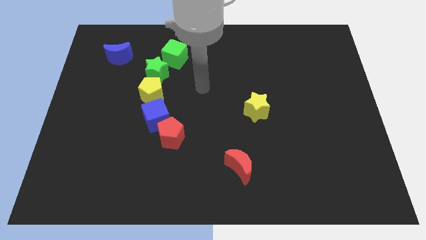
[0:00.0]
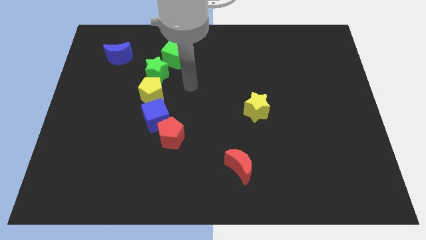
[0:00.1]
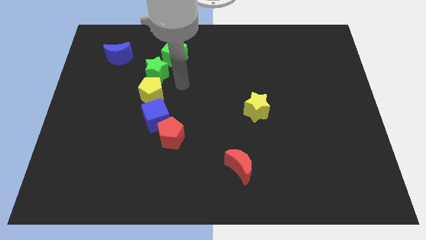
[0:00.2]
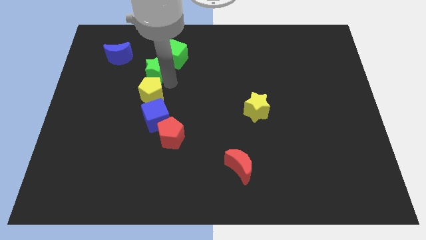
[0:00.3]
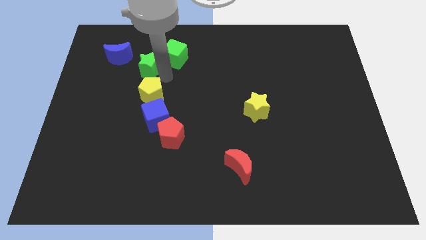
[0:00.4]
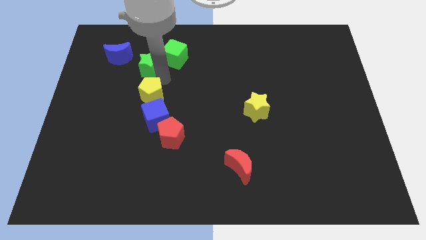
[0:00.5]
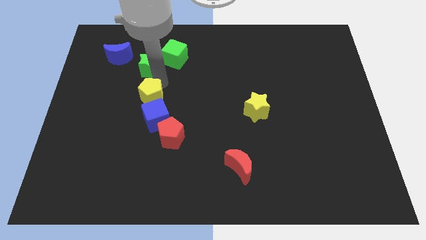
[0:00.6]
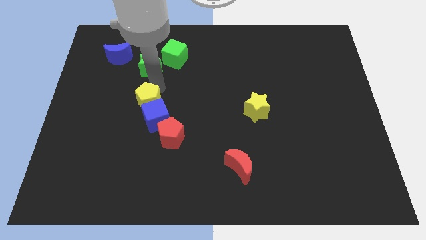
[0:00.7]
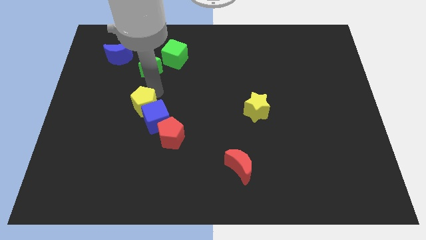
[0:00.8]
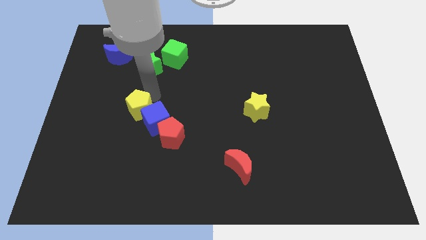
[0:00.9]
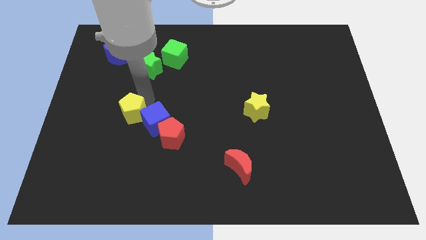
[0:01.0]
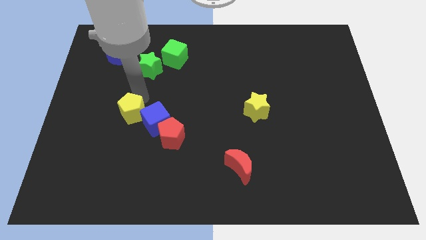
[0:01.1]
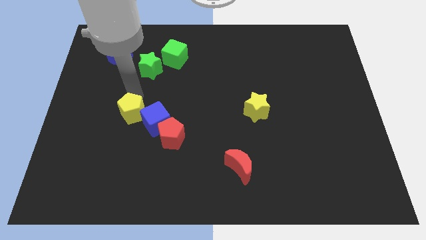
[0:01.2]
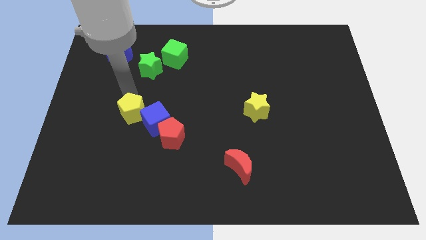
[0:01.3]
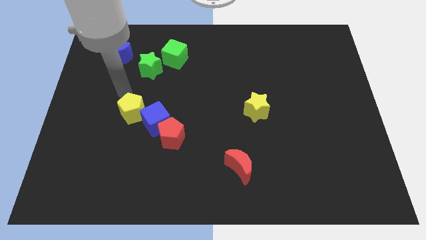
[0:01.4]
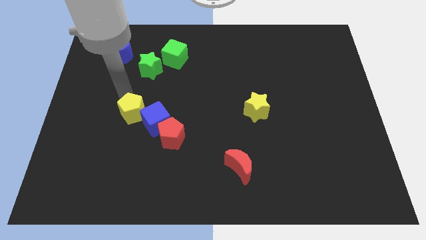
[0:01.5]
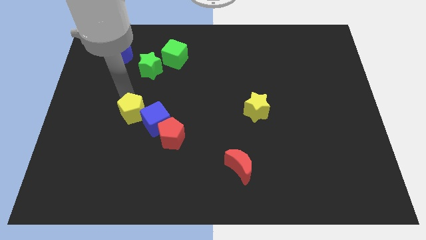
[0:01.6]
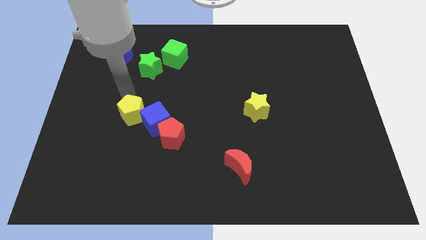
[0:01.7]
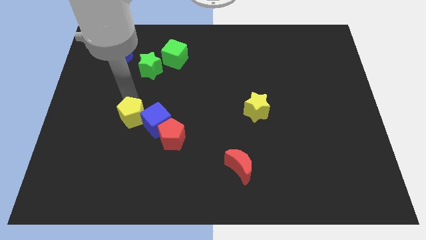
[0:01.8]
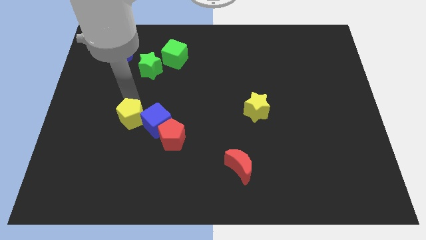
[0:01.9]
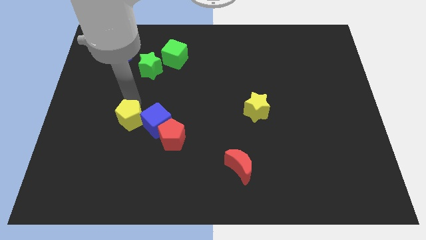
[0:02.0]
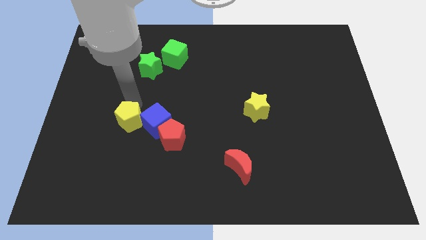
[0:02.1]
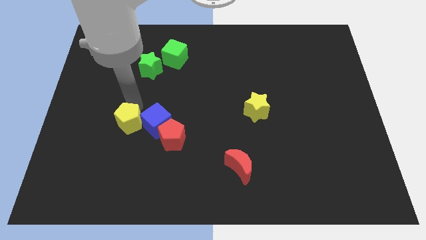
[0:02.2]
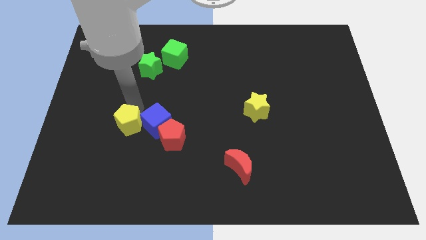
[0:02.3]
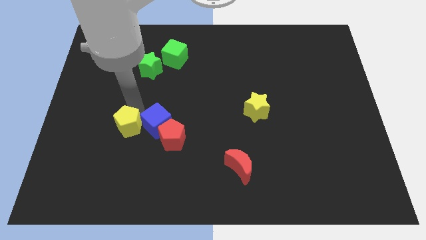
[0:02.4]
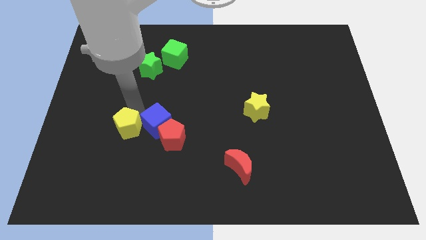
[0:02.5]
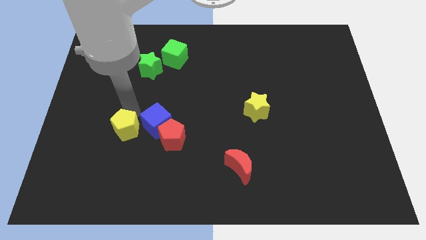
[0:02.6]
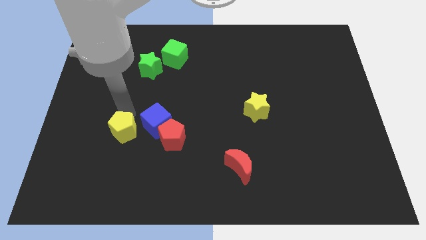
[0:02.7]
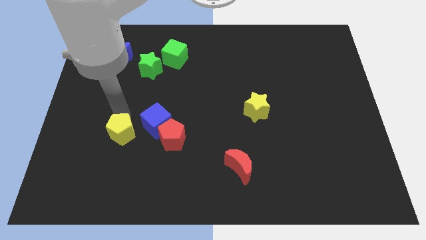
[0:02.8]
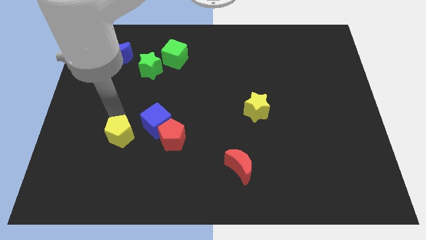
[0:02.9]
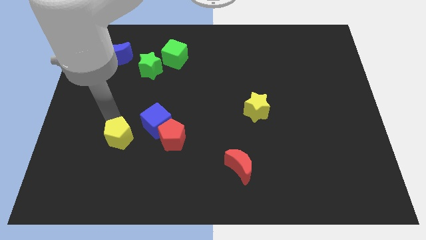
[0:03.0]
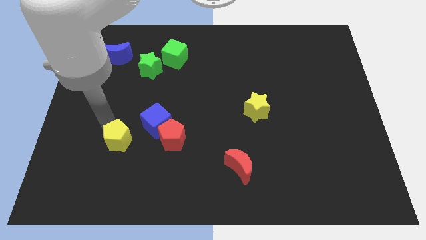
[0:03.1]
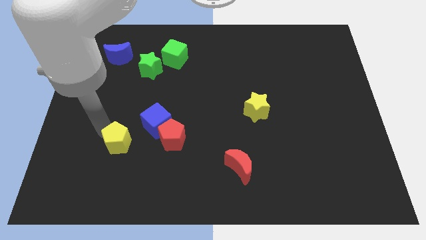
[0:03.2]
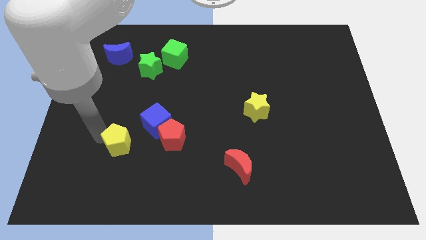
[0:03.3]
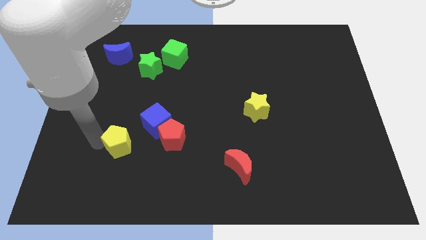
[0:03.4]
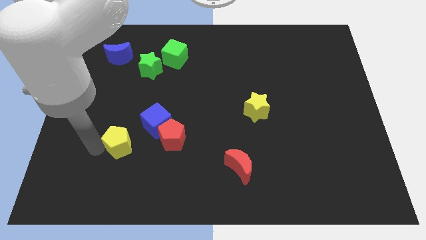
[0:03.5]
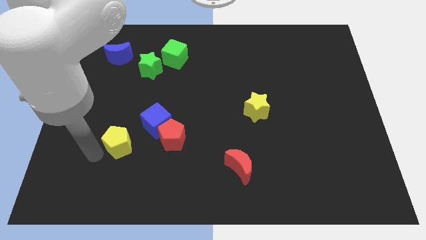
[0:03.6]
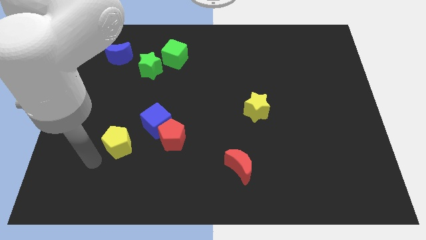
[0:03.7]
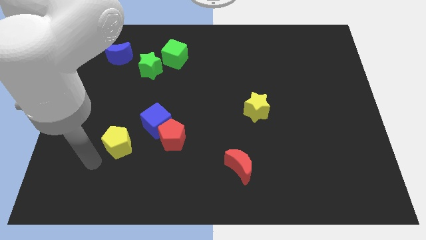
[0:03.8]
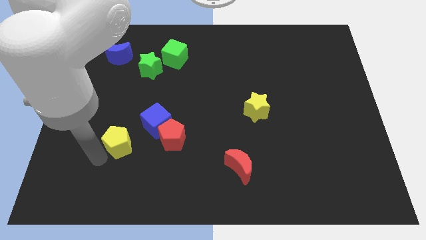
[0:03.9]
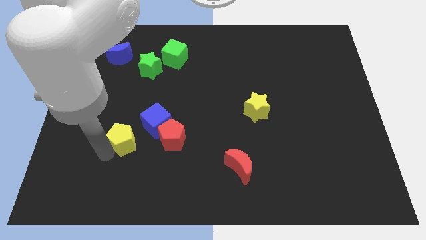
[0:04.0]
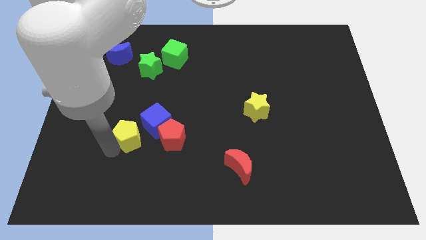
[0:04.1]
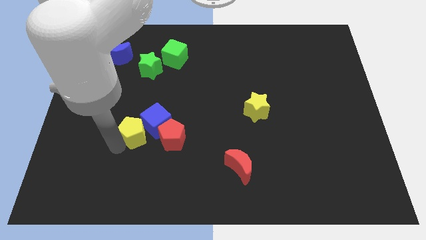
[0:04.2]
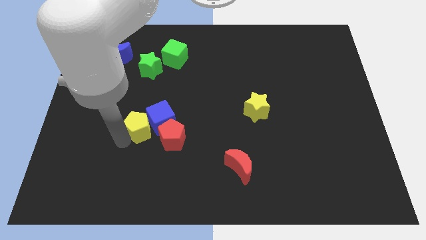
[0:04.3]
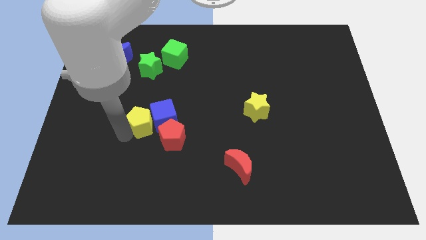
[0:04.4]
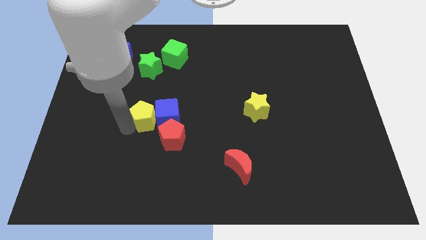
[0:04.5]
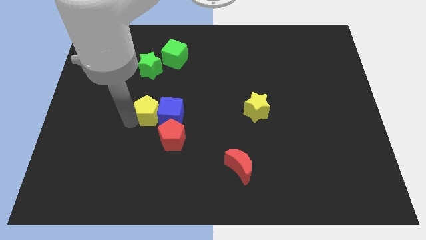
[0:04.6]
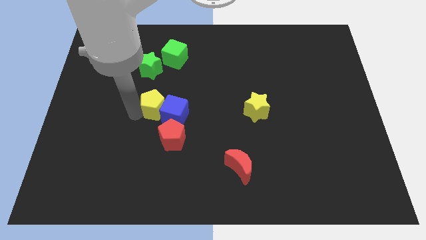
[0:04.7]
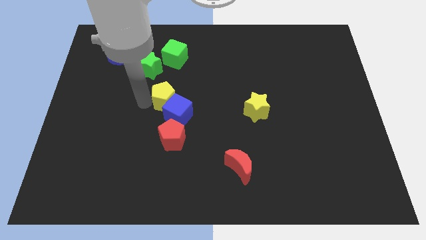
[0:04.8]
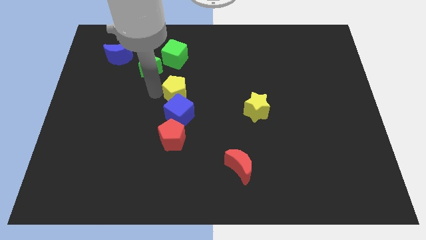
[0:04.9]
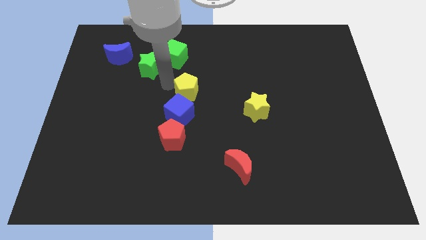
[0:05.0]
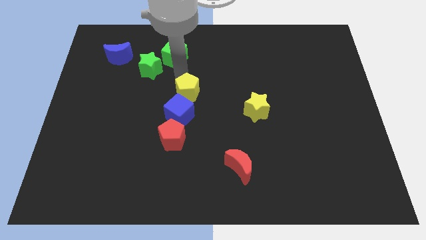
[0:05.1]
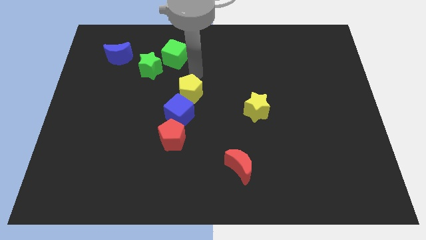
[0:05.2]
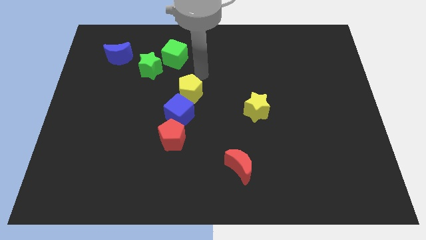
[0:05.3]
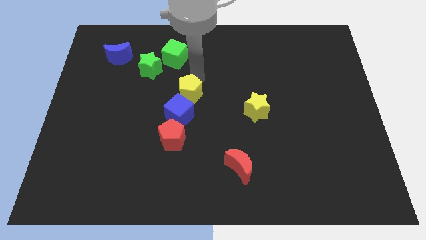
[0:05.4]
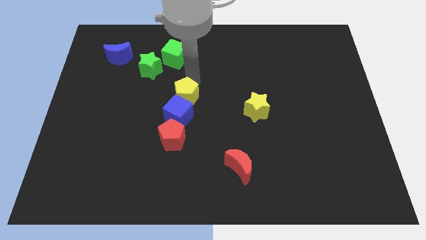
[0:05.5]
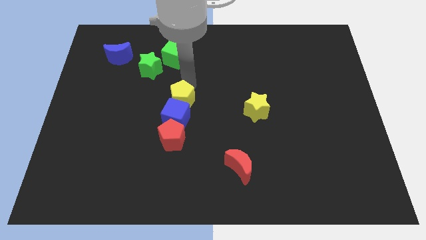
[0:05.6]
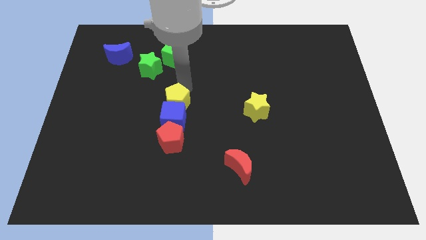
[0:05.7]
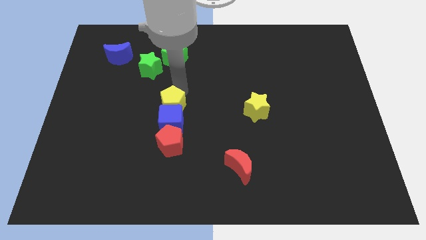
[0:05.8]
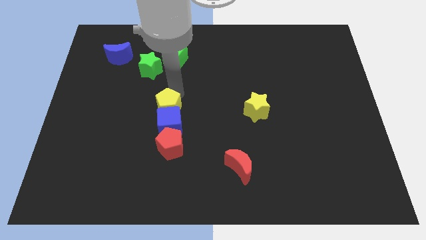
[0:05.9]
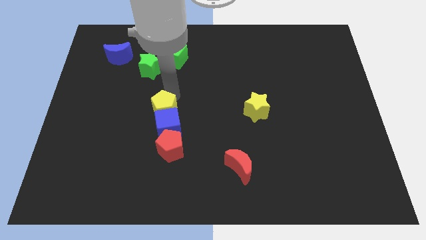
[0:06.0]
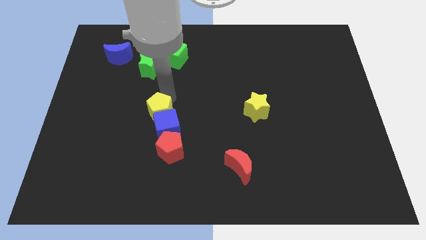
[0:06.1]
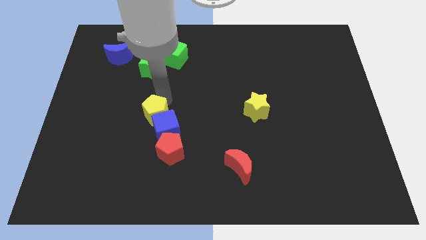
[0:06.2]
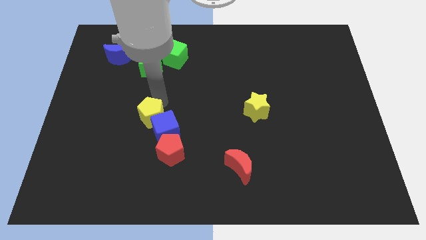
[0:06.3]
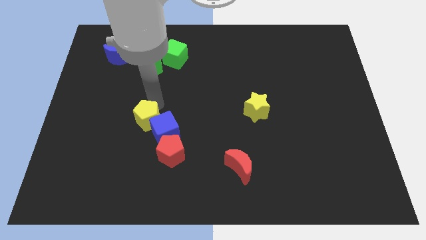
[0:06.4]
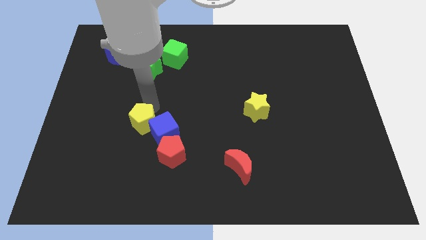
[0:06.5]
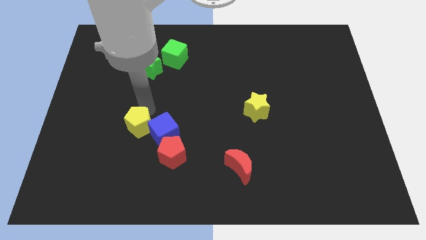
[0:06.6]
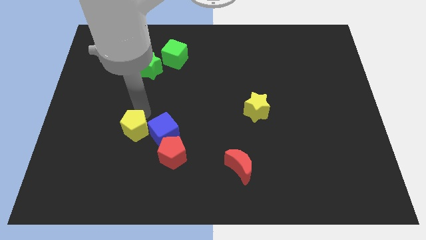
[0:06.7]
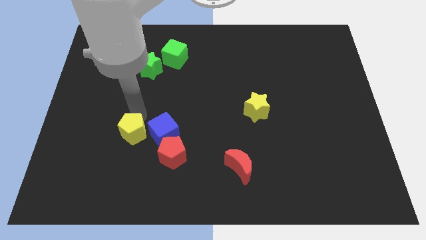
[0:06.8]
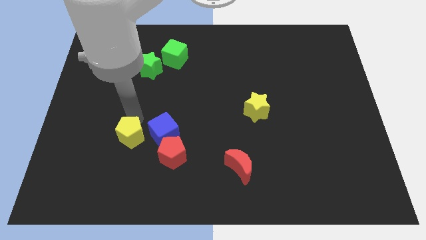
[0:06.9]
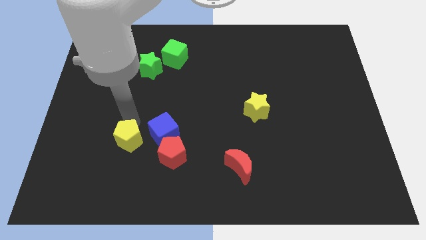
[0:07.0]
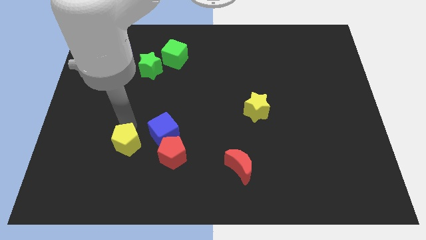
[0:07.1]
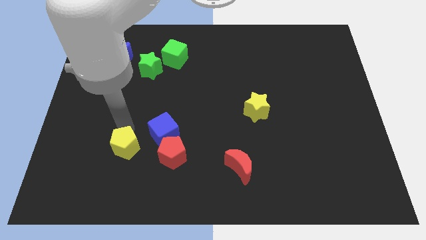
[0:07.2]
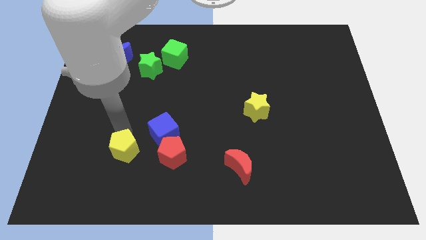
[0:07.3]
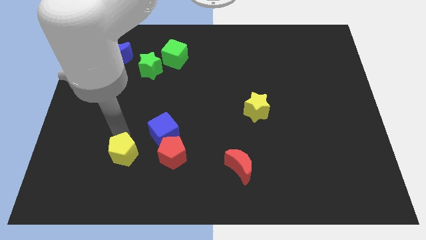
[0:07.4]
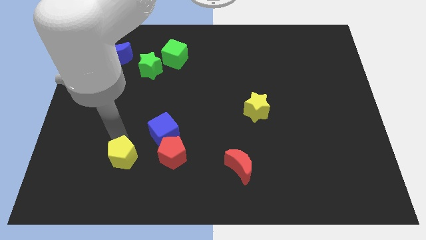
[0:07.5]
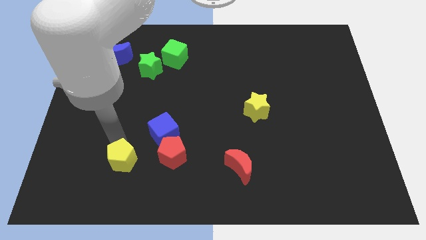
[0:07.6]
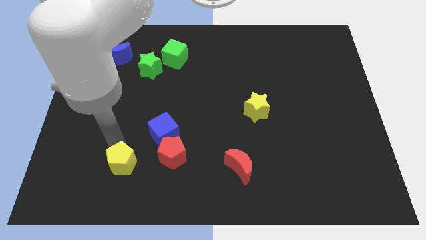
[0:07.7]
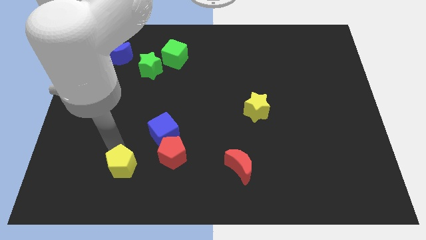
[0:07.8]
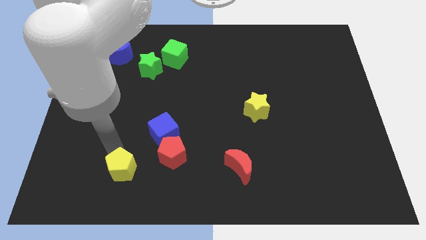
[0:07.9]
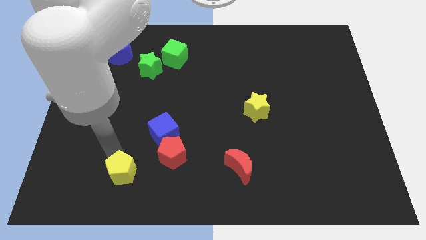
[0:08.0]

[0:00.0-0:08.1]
move the yellow pentagon to the bottom left of the red pentagon
